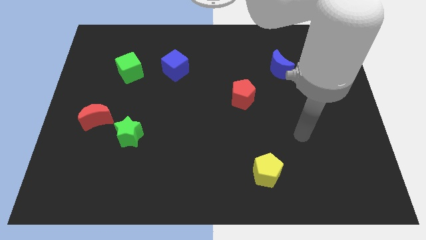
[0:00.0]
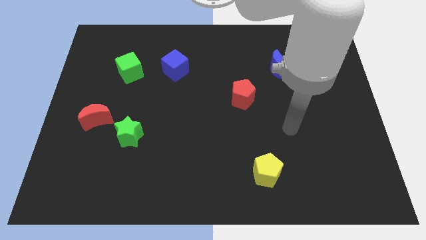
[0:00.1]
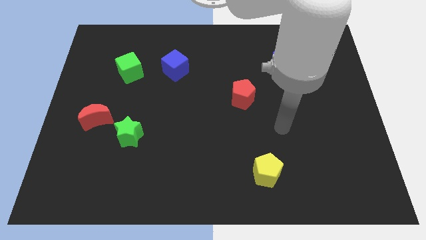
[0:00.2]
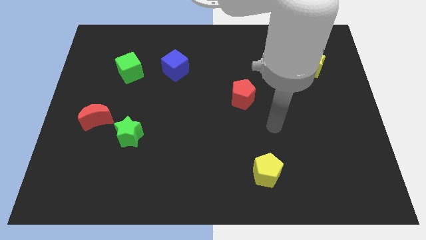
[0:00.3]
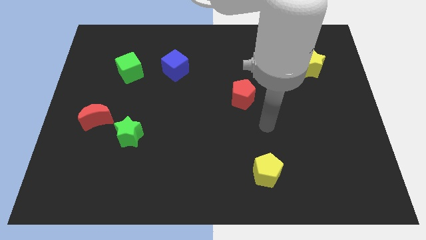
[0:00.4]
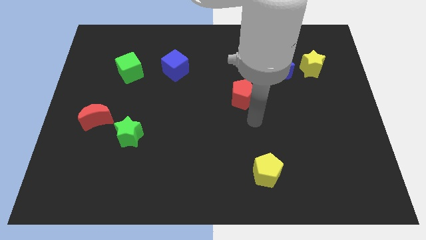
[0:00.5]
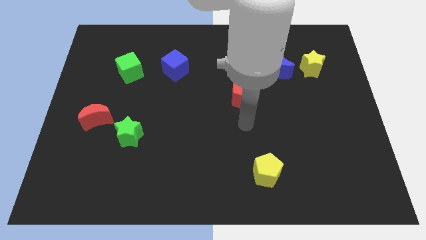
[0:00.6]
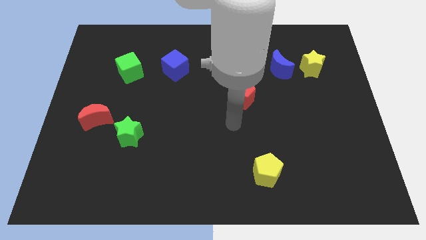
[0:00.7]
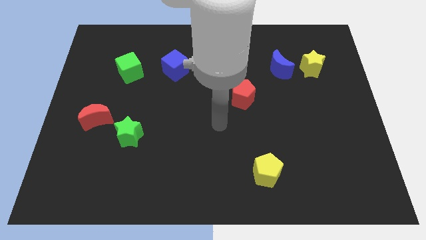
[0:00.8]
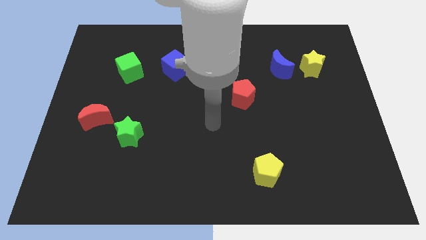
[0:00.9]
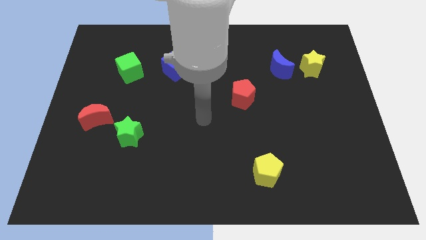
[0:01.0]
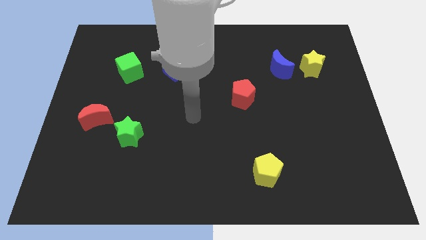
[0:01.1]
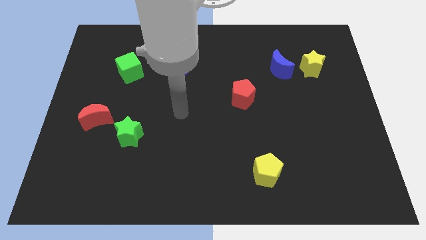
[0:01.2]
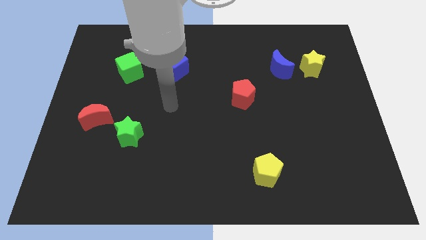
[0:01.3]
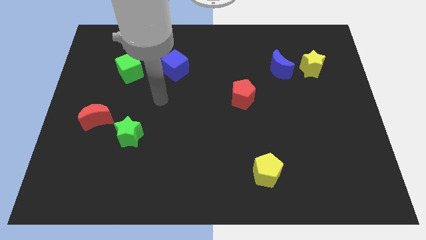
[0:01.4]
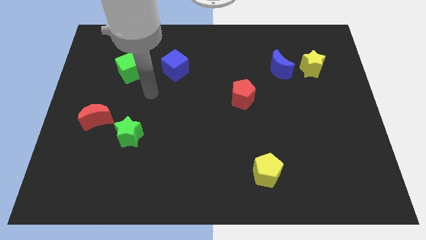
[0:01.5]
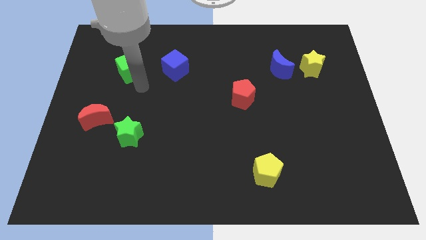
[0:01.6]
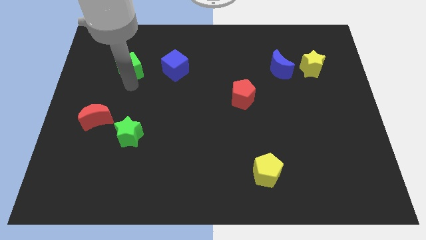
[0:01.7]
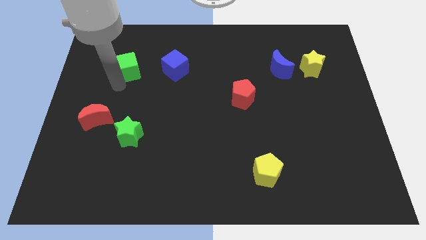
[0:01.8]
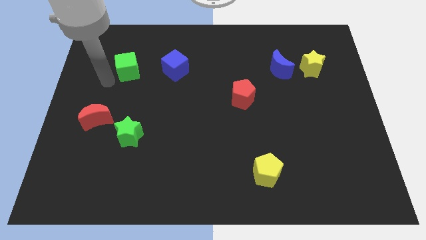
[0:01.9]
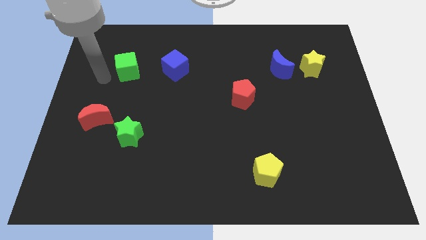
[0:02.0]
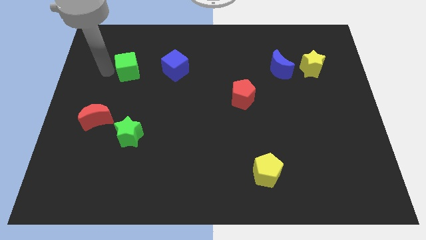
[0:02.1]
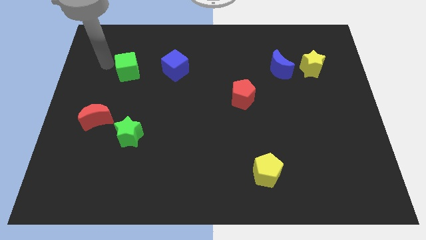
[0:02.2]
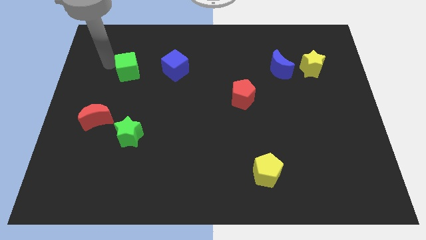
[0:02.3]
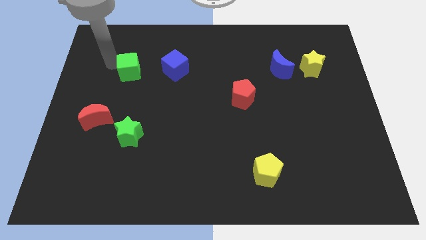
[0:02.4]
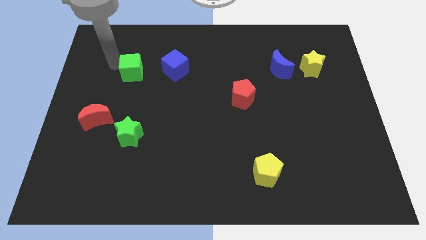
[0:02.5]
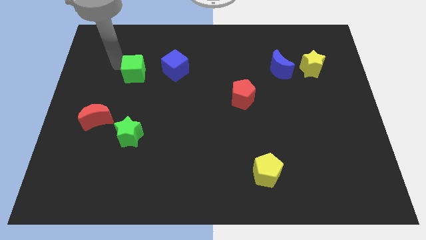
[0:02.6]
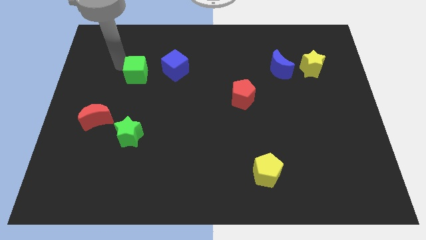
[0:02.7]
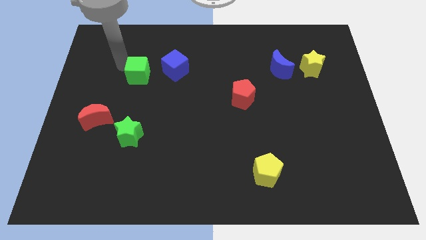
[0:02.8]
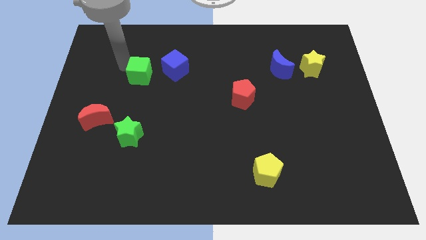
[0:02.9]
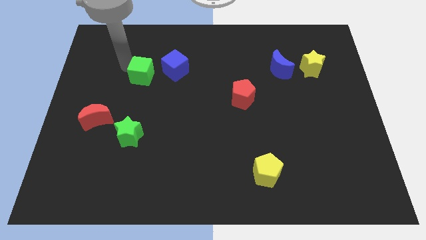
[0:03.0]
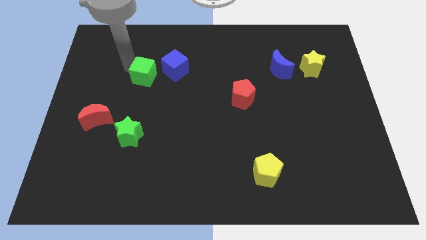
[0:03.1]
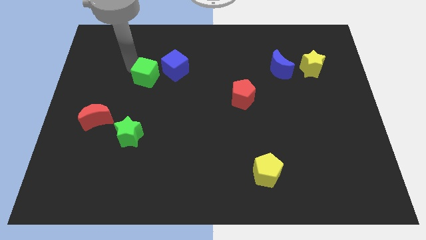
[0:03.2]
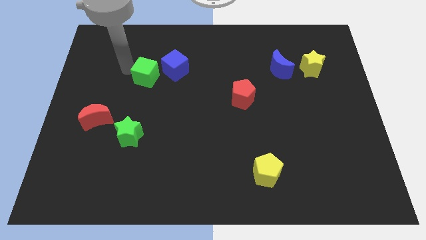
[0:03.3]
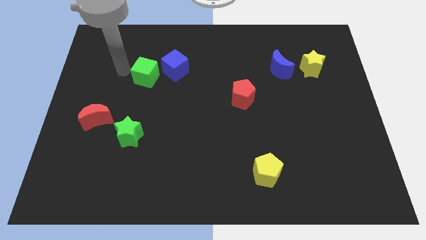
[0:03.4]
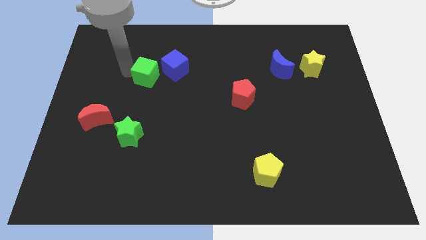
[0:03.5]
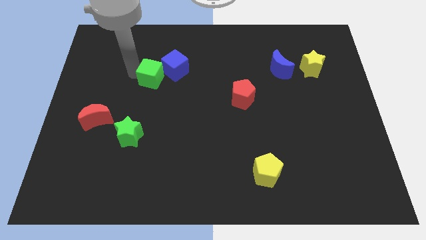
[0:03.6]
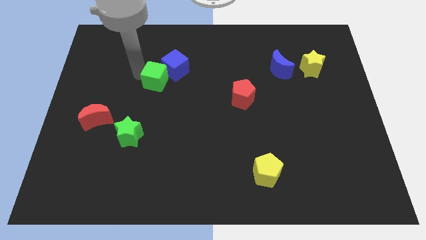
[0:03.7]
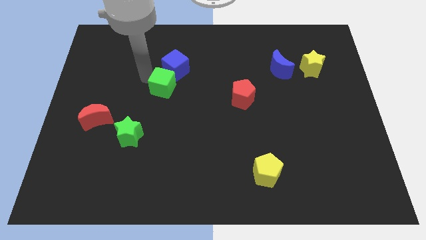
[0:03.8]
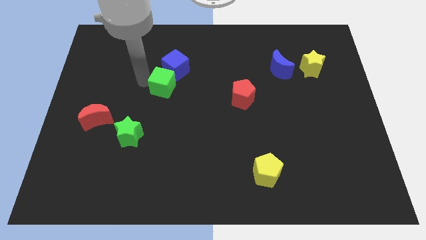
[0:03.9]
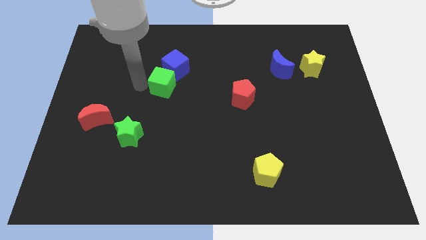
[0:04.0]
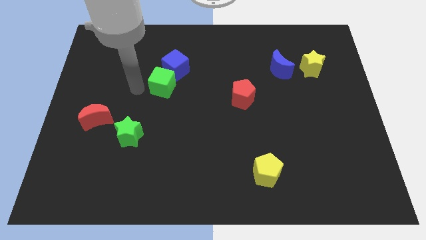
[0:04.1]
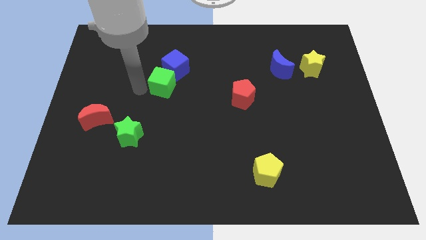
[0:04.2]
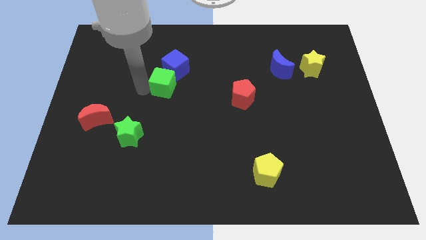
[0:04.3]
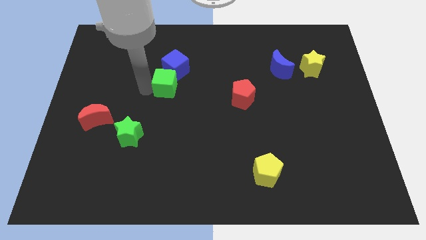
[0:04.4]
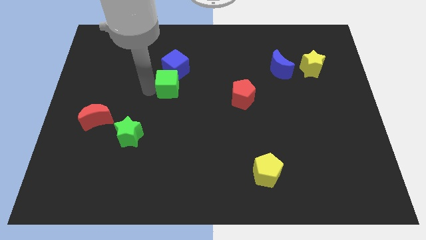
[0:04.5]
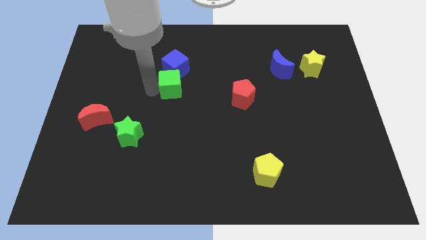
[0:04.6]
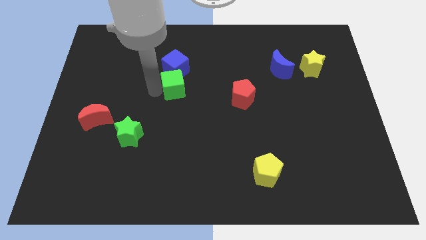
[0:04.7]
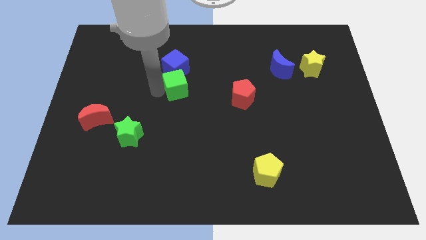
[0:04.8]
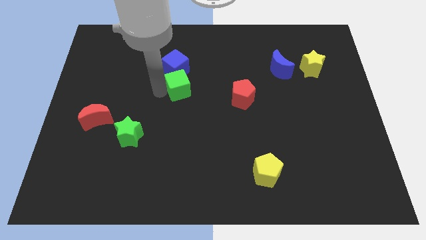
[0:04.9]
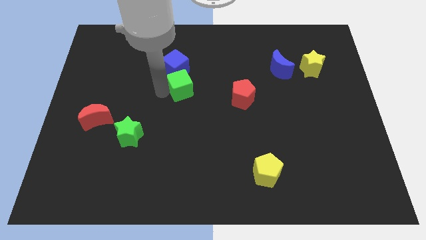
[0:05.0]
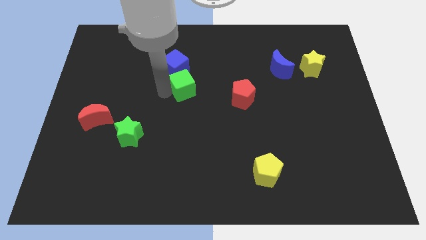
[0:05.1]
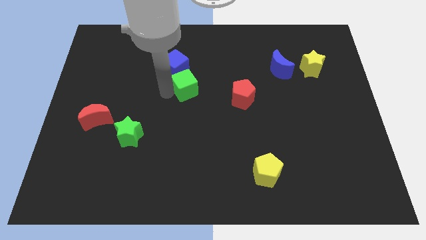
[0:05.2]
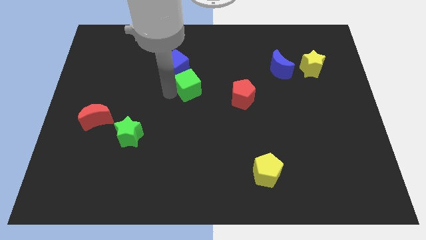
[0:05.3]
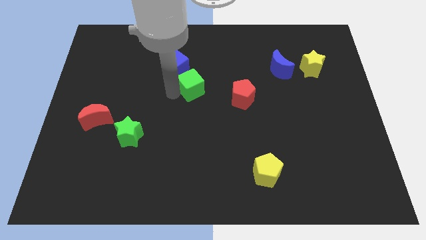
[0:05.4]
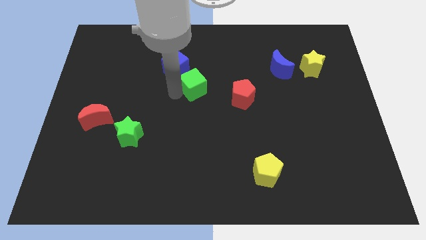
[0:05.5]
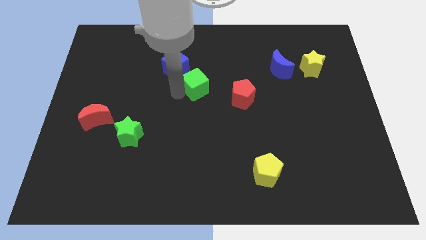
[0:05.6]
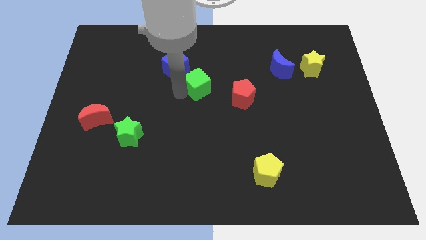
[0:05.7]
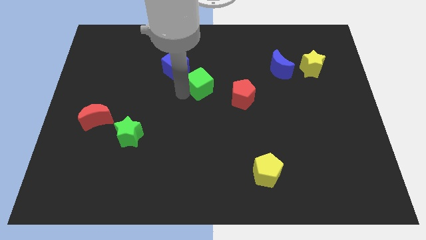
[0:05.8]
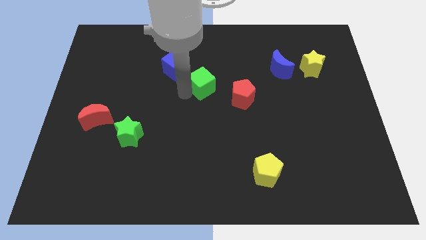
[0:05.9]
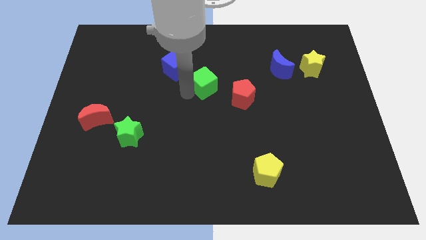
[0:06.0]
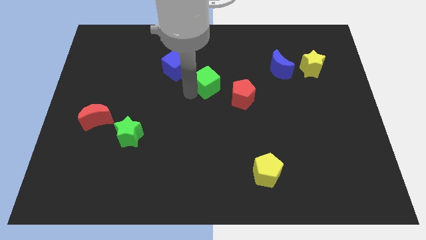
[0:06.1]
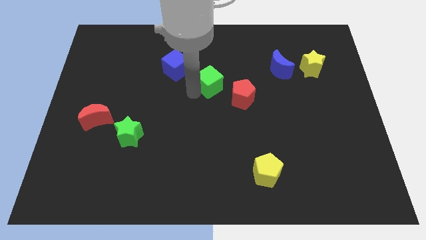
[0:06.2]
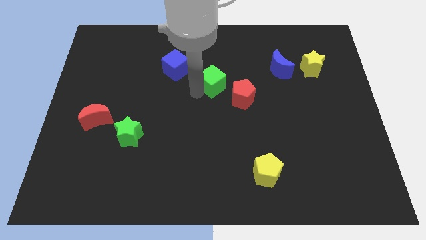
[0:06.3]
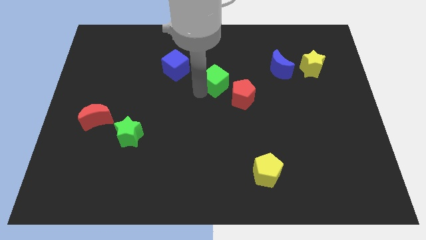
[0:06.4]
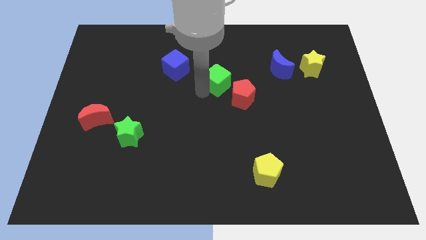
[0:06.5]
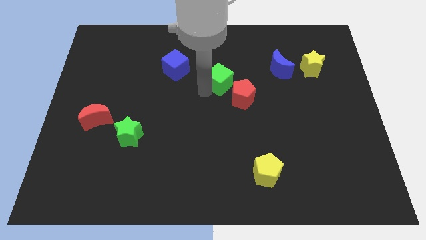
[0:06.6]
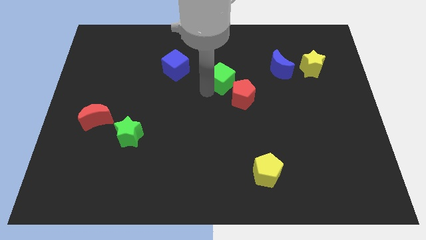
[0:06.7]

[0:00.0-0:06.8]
push the green cube to the top of the red pentagon
